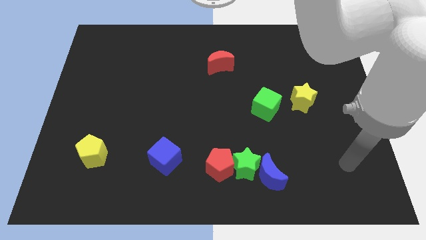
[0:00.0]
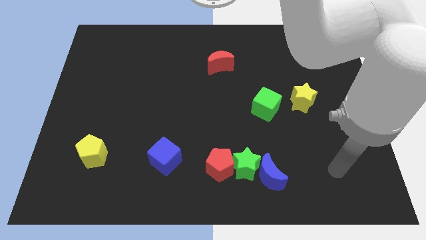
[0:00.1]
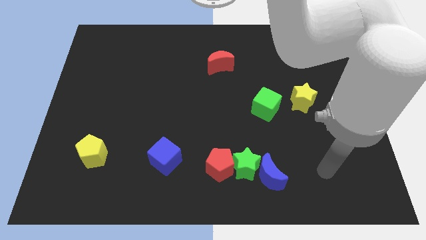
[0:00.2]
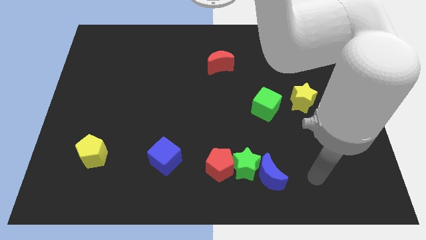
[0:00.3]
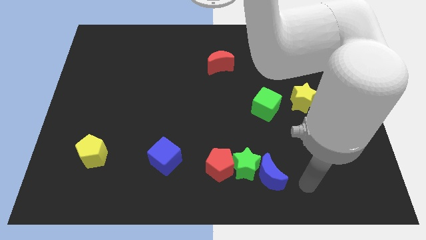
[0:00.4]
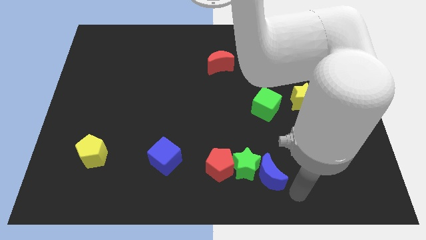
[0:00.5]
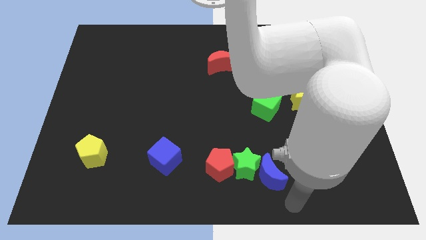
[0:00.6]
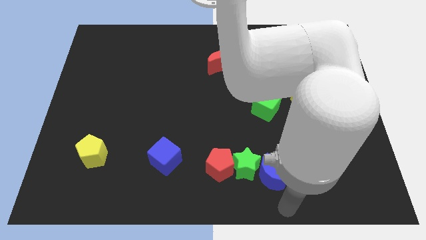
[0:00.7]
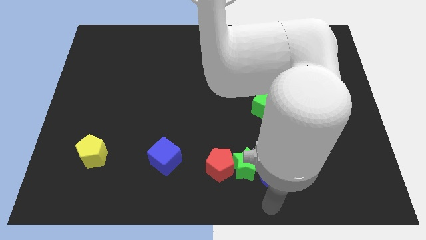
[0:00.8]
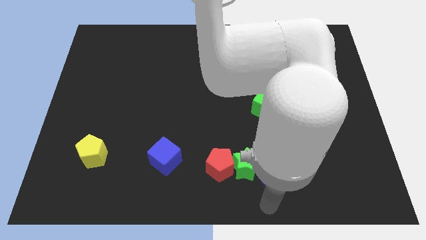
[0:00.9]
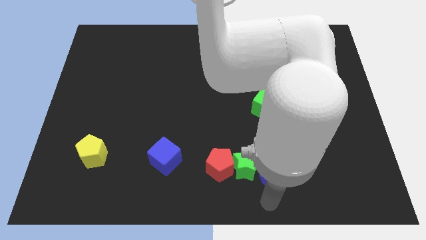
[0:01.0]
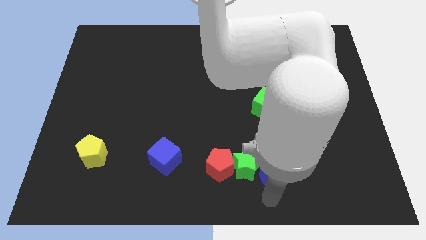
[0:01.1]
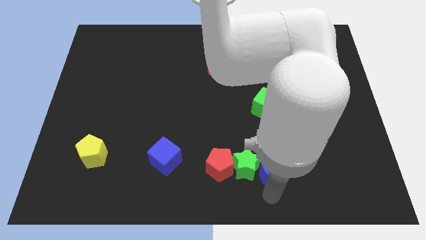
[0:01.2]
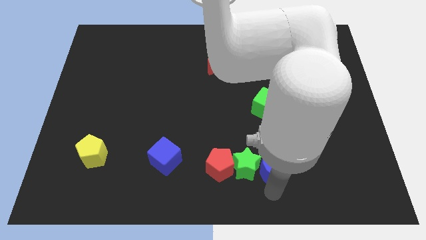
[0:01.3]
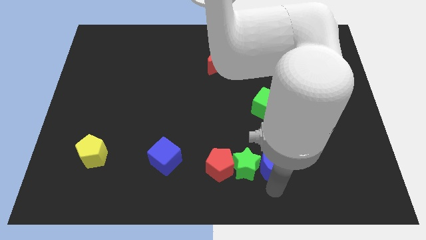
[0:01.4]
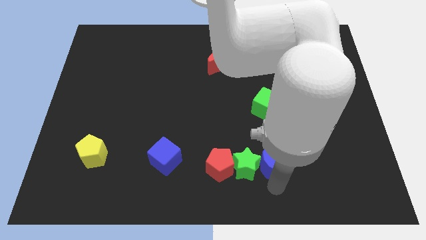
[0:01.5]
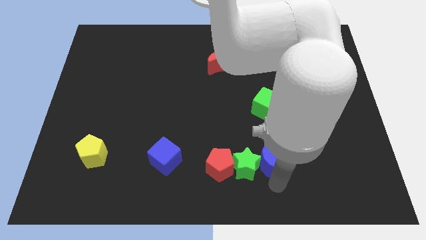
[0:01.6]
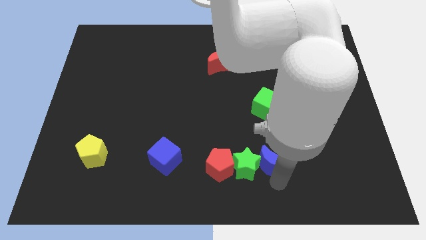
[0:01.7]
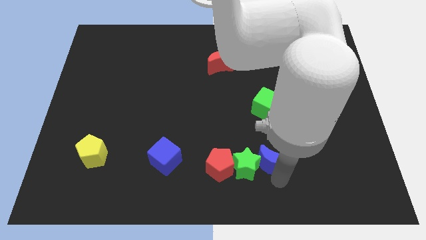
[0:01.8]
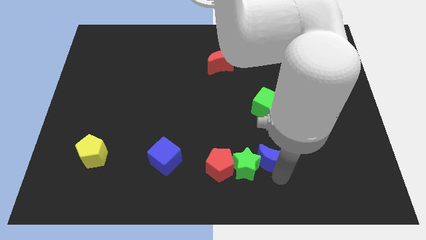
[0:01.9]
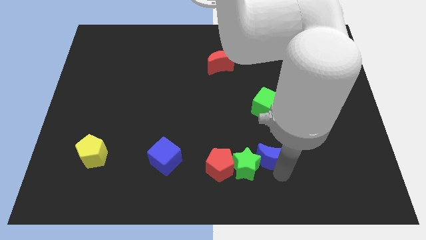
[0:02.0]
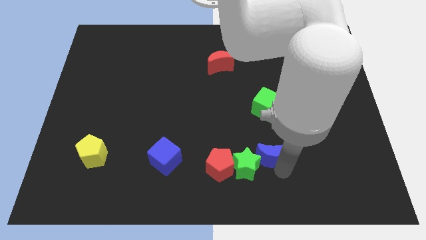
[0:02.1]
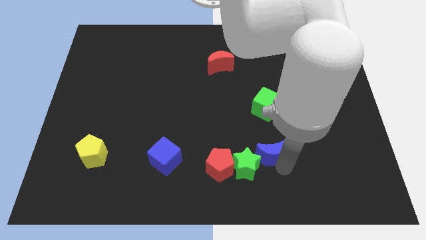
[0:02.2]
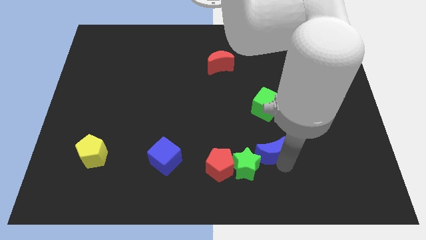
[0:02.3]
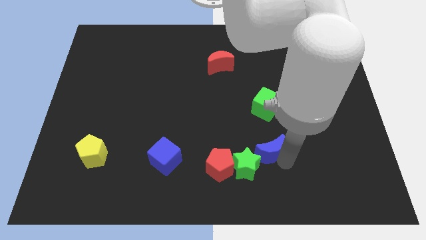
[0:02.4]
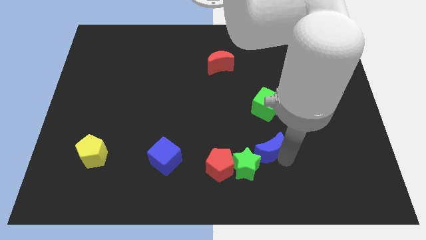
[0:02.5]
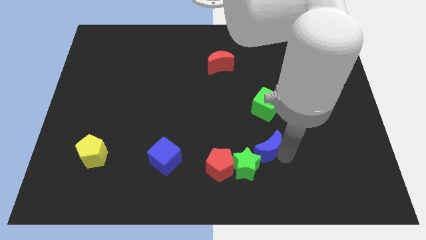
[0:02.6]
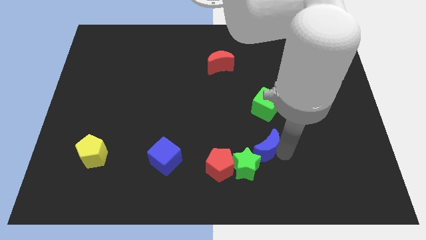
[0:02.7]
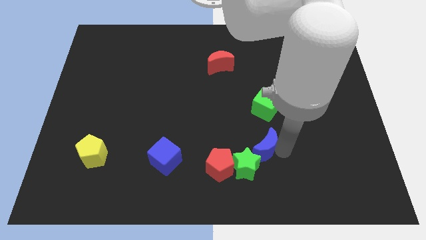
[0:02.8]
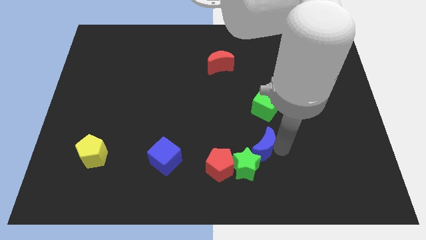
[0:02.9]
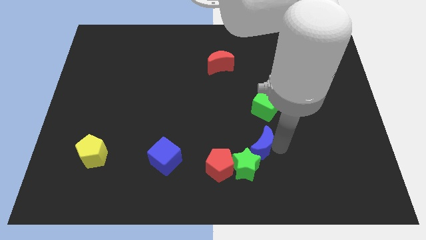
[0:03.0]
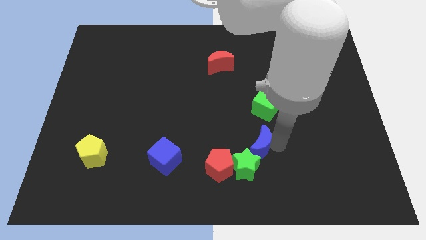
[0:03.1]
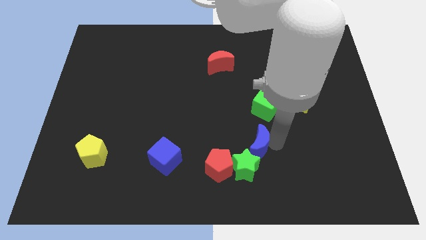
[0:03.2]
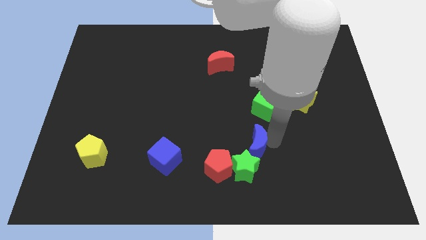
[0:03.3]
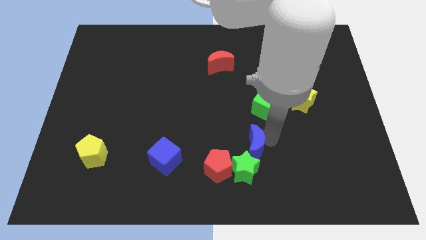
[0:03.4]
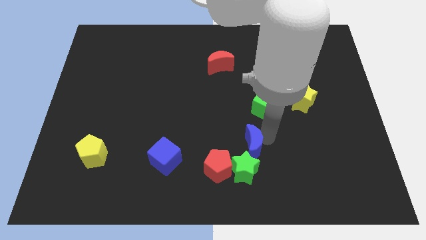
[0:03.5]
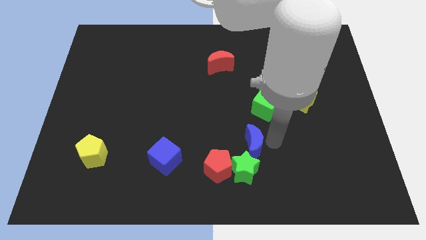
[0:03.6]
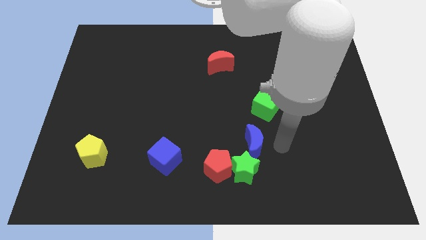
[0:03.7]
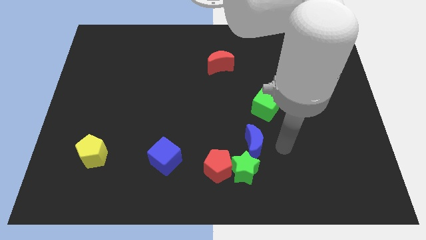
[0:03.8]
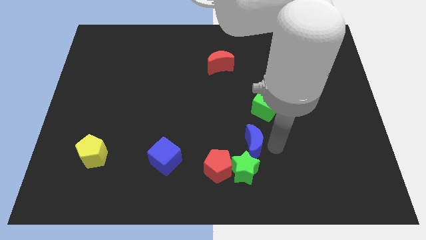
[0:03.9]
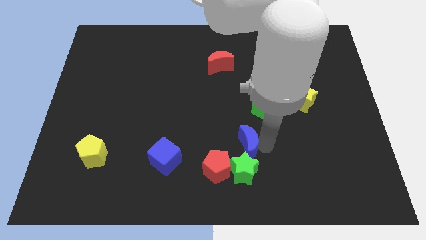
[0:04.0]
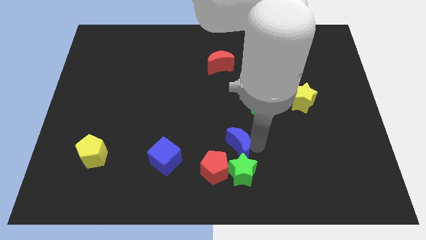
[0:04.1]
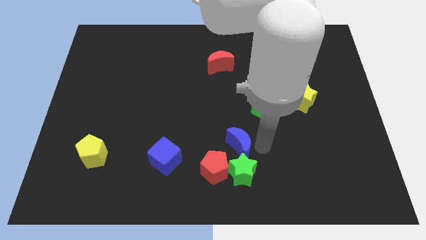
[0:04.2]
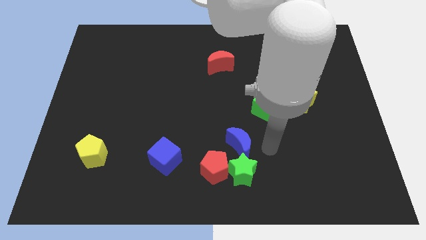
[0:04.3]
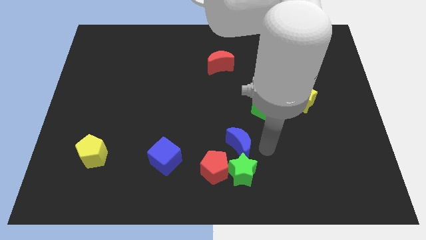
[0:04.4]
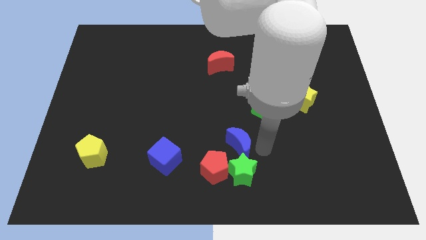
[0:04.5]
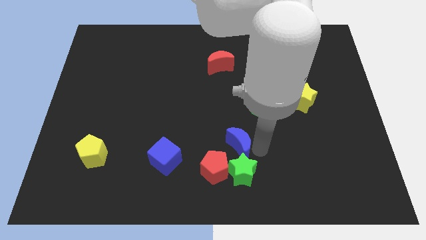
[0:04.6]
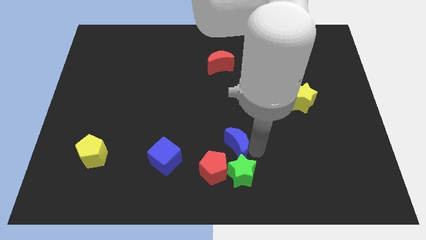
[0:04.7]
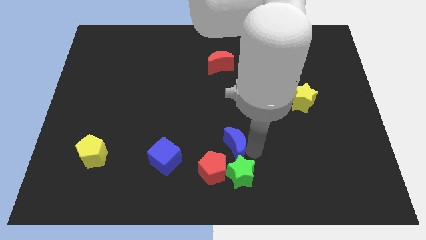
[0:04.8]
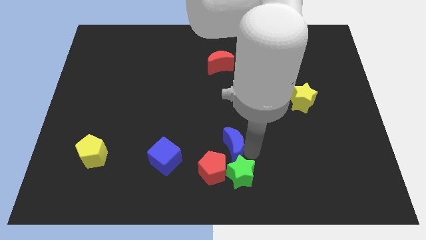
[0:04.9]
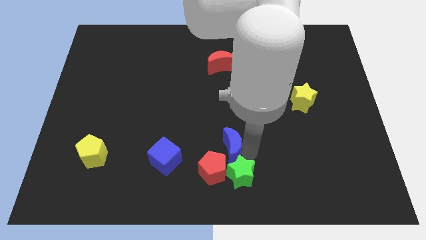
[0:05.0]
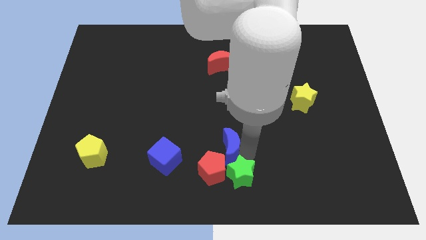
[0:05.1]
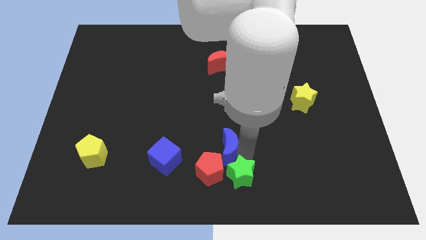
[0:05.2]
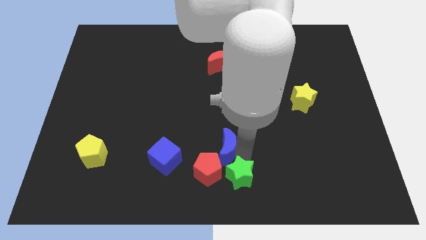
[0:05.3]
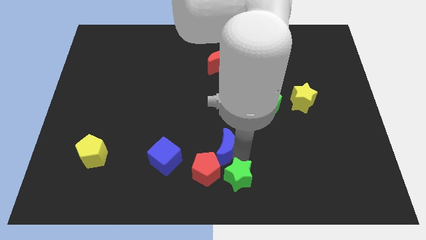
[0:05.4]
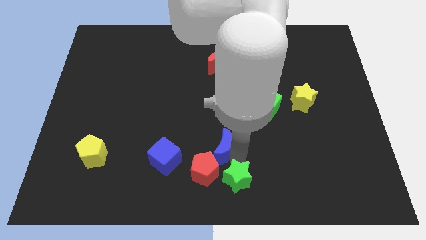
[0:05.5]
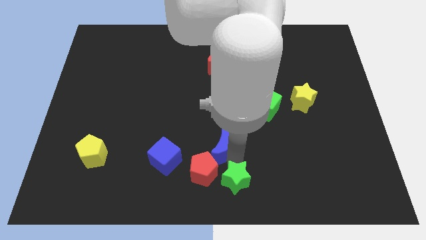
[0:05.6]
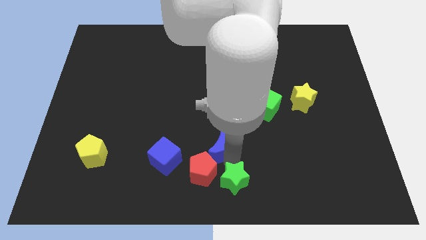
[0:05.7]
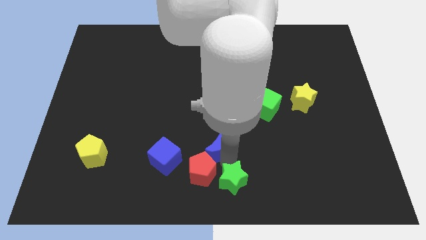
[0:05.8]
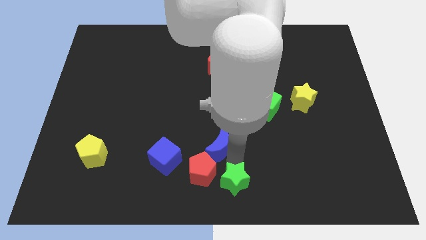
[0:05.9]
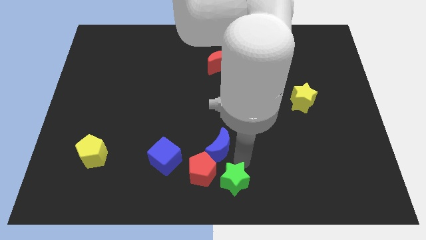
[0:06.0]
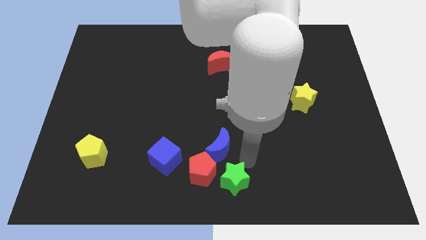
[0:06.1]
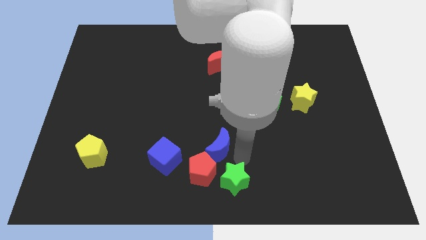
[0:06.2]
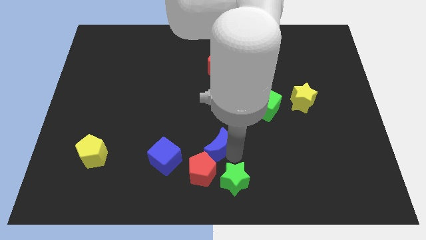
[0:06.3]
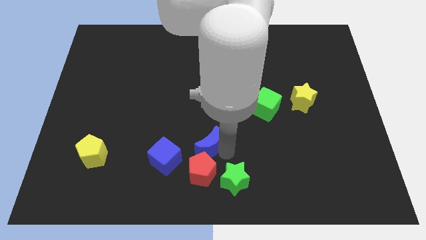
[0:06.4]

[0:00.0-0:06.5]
move the blue moon to the top right of the blue cube
